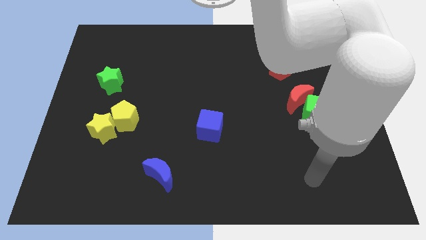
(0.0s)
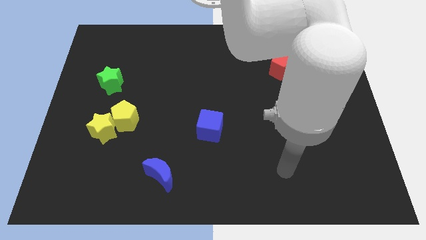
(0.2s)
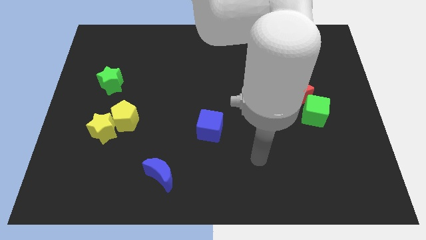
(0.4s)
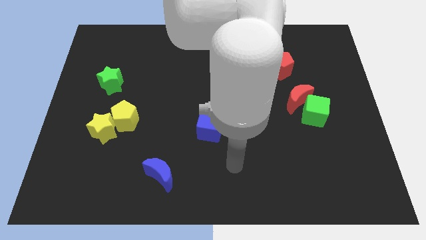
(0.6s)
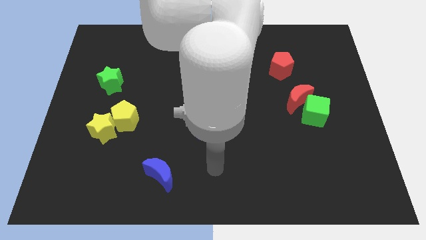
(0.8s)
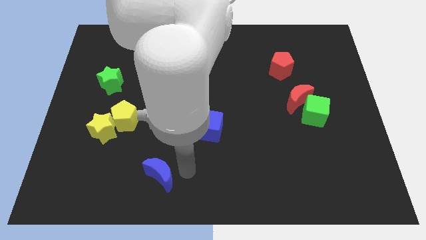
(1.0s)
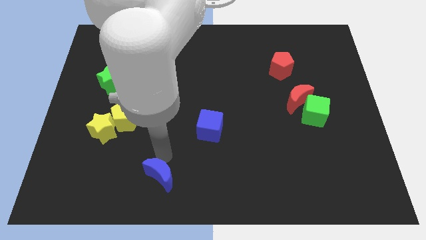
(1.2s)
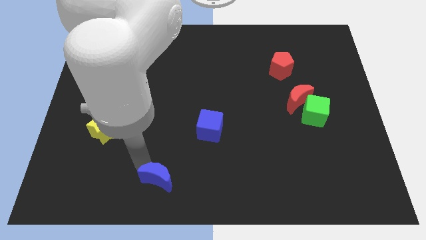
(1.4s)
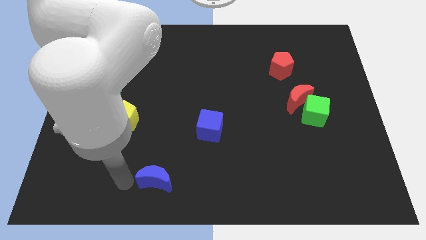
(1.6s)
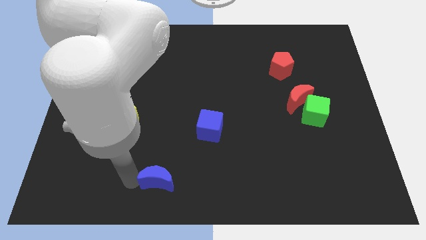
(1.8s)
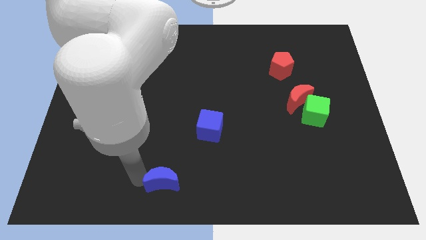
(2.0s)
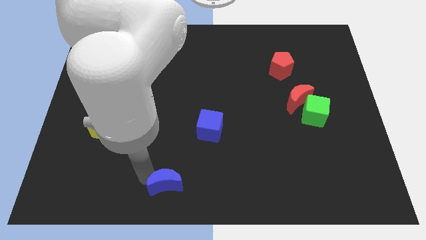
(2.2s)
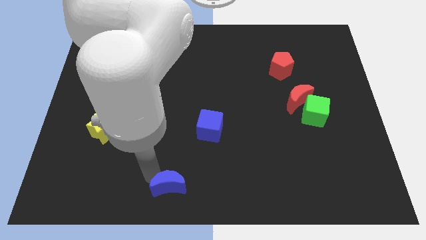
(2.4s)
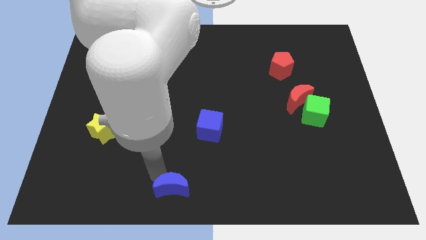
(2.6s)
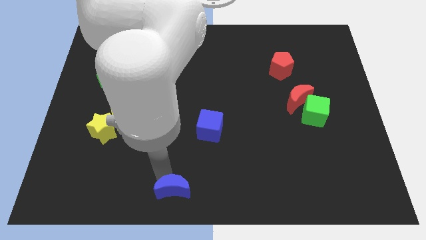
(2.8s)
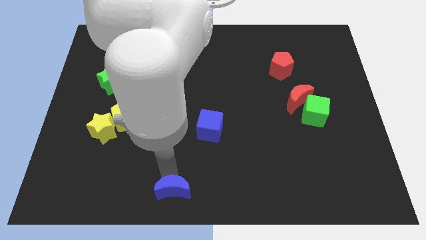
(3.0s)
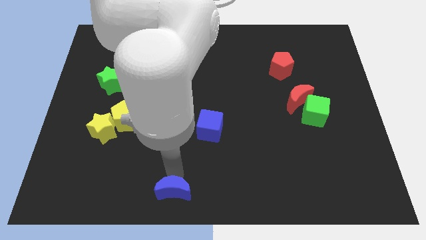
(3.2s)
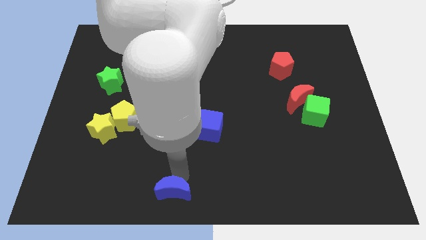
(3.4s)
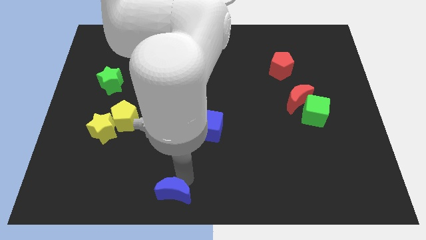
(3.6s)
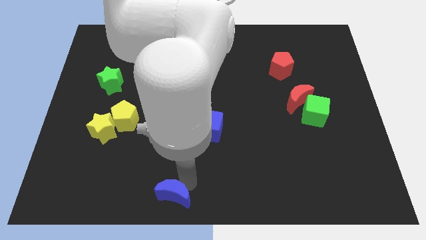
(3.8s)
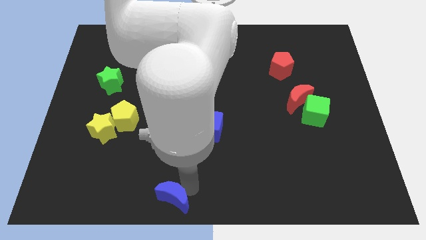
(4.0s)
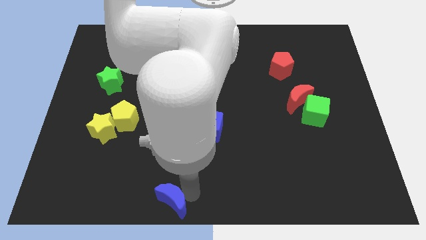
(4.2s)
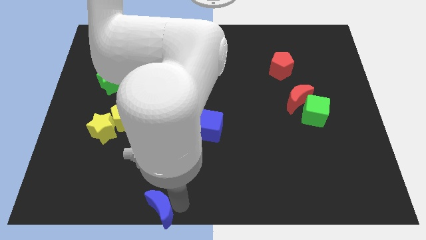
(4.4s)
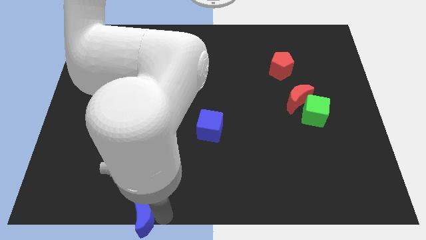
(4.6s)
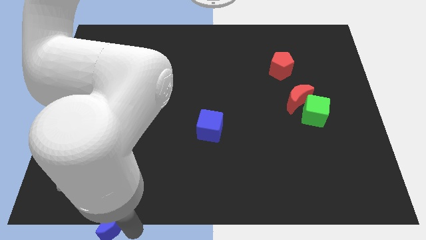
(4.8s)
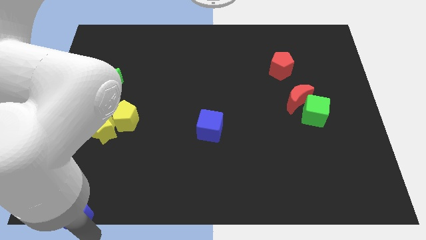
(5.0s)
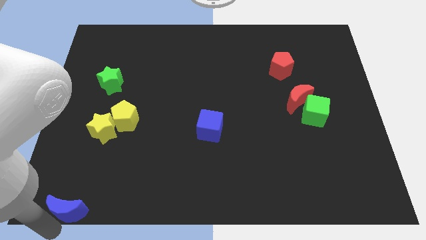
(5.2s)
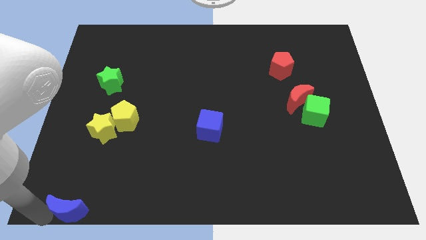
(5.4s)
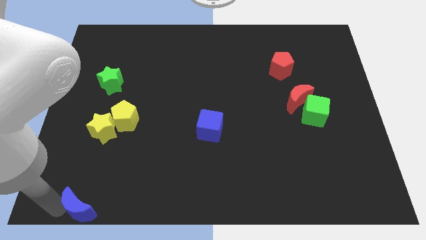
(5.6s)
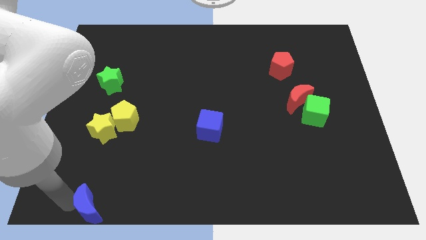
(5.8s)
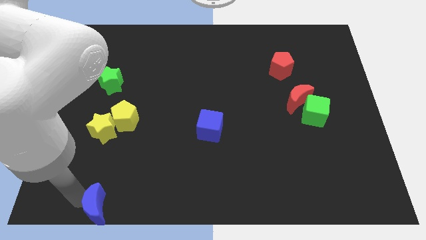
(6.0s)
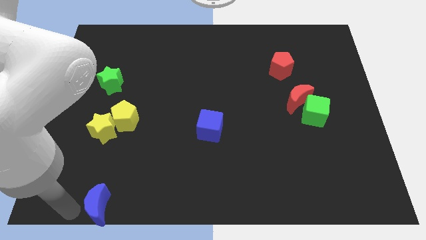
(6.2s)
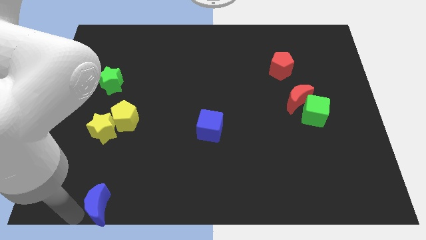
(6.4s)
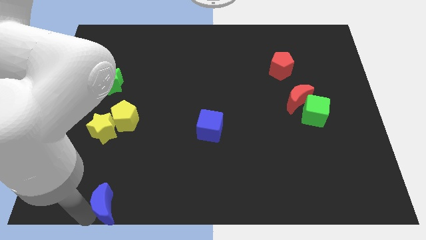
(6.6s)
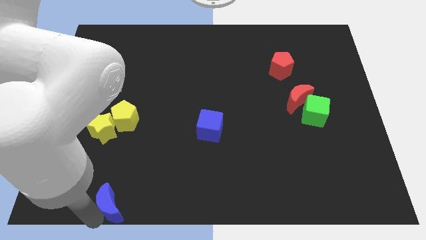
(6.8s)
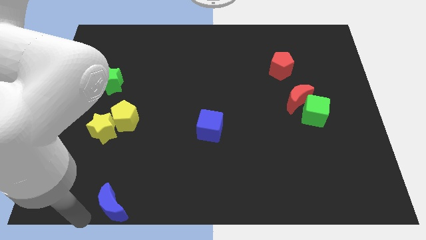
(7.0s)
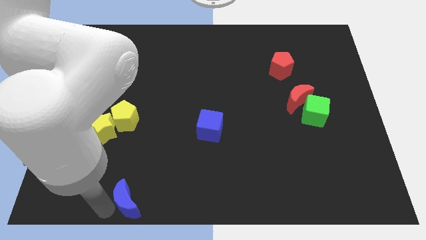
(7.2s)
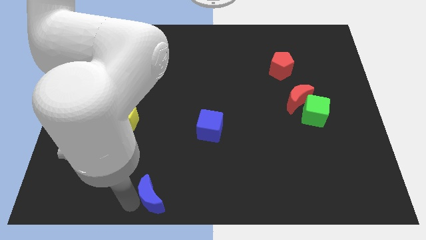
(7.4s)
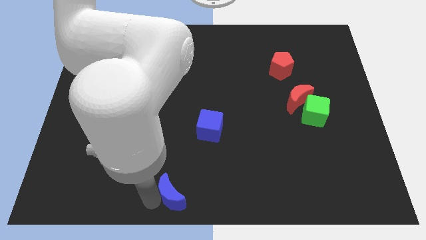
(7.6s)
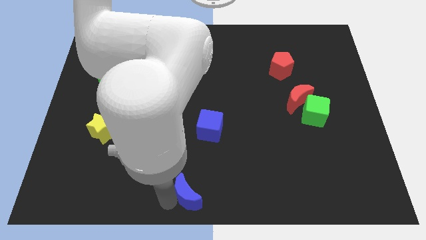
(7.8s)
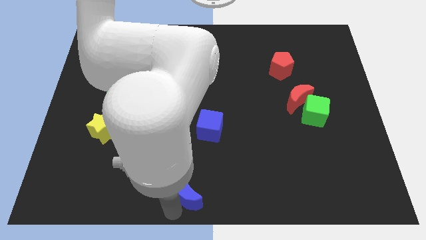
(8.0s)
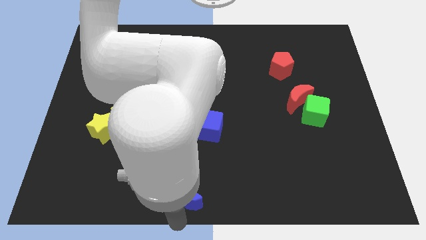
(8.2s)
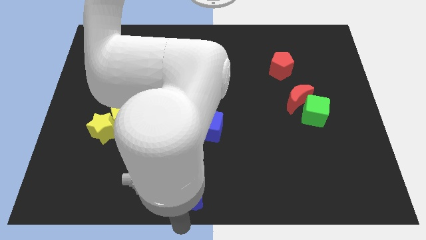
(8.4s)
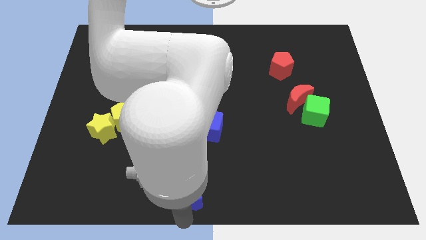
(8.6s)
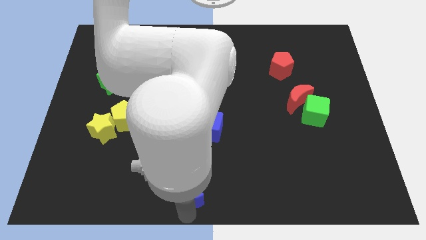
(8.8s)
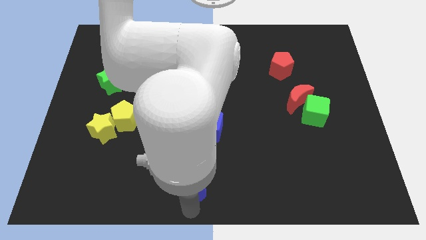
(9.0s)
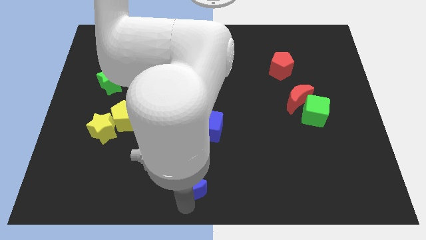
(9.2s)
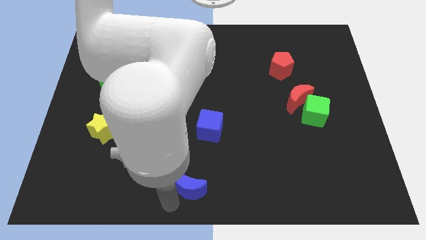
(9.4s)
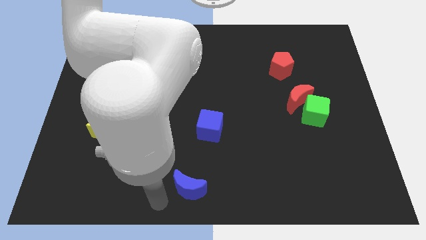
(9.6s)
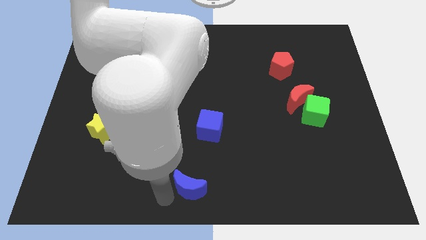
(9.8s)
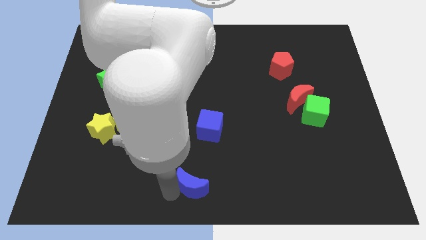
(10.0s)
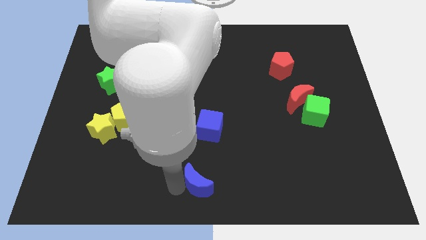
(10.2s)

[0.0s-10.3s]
slide the blue moon right somewhat

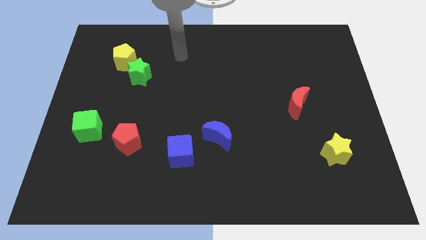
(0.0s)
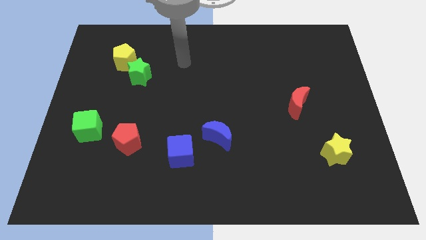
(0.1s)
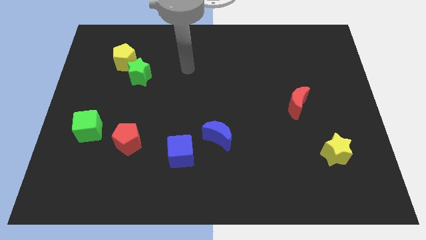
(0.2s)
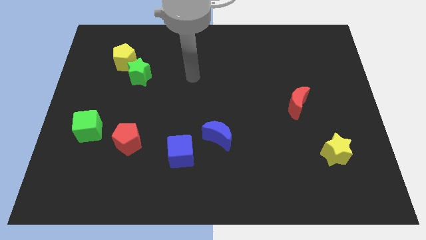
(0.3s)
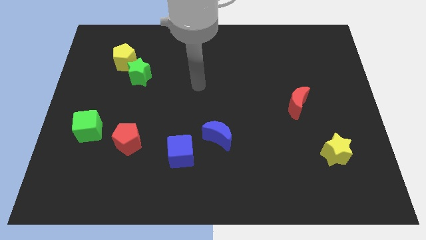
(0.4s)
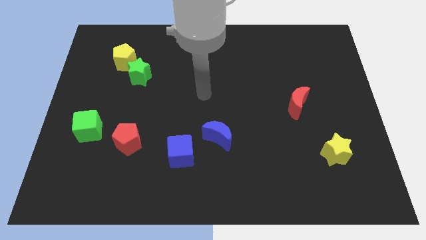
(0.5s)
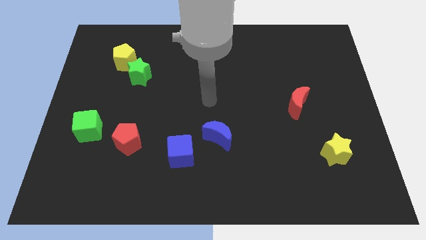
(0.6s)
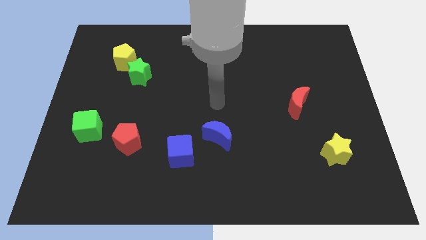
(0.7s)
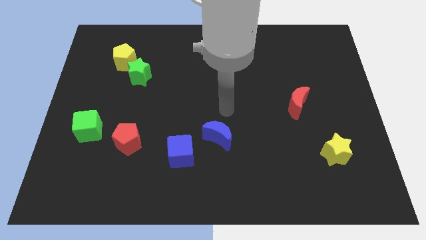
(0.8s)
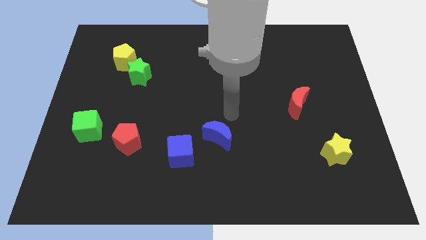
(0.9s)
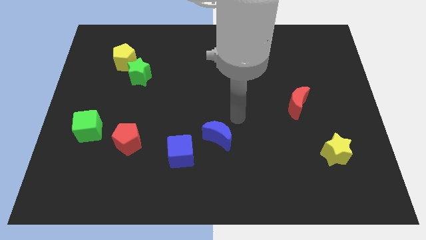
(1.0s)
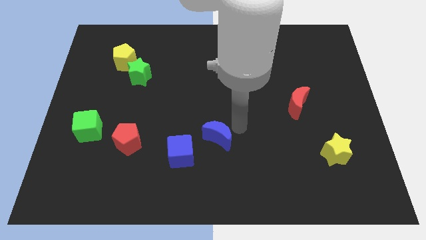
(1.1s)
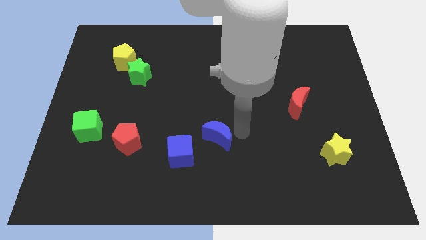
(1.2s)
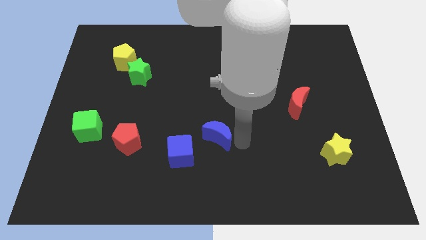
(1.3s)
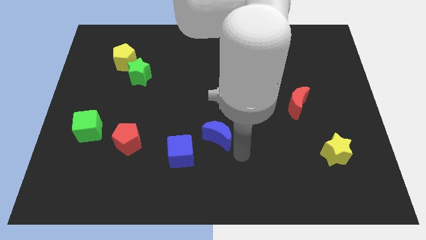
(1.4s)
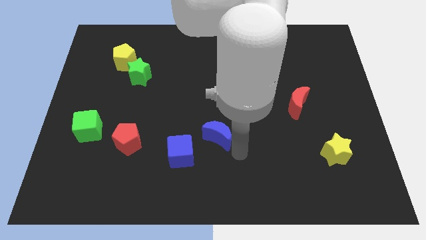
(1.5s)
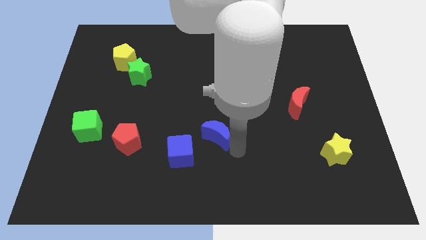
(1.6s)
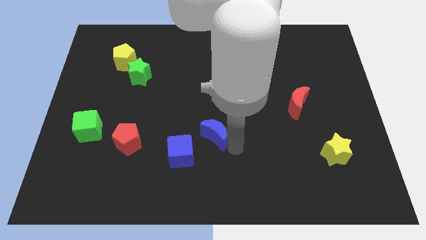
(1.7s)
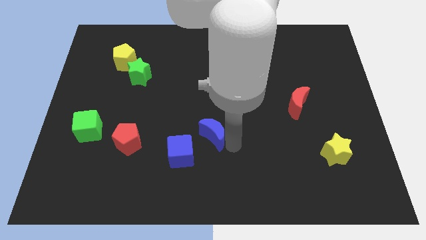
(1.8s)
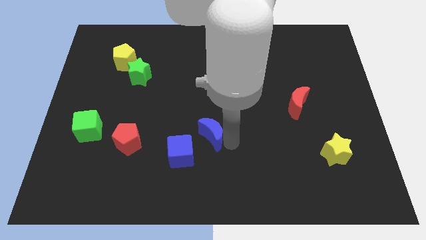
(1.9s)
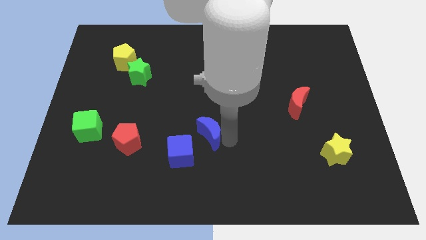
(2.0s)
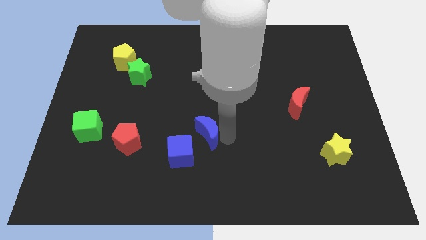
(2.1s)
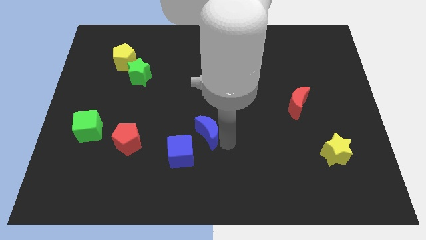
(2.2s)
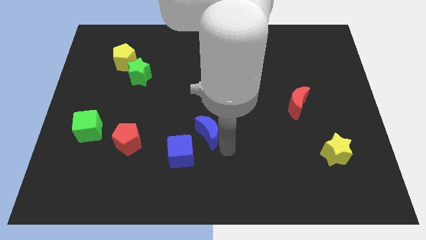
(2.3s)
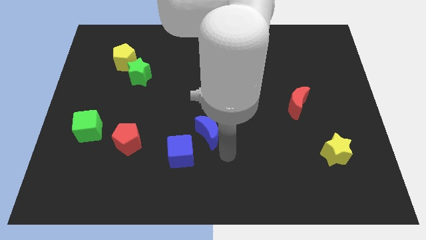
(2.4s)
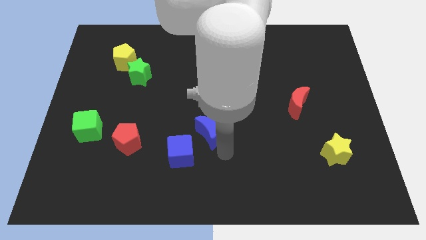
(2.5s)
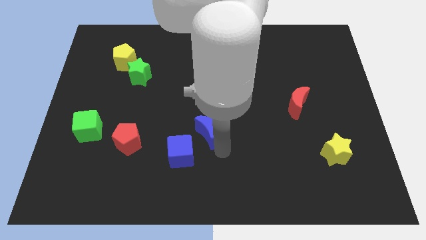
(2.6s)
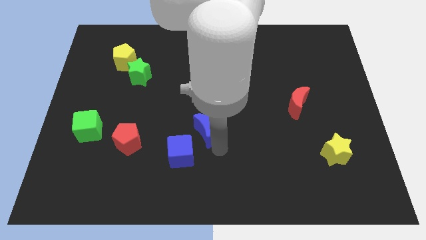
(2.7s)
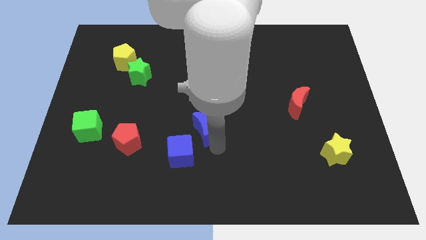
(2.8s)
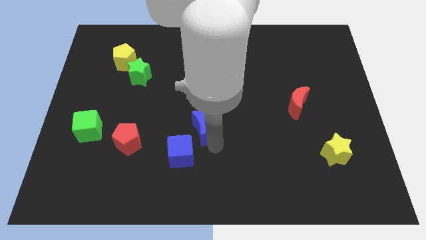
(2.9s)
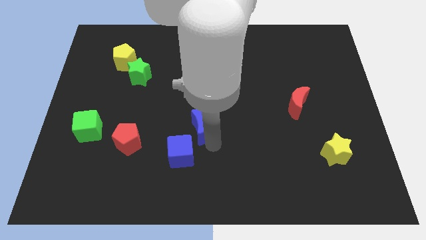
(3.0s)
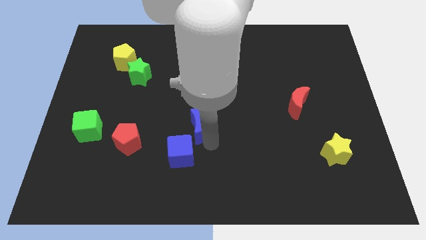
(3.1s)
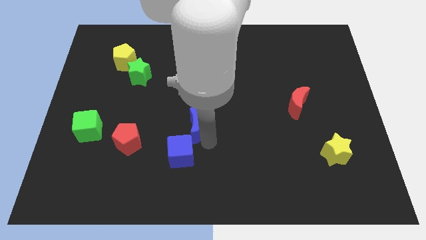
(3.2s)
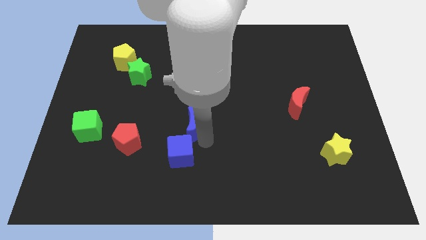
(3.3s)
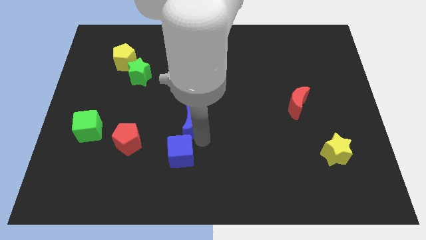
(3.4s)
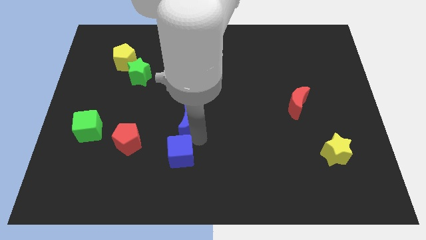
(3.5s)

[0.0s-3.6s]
slightly slide the blue moon up and left
